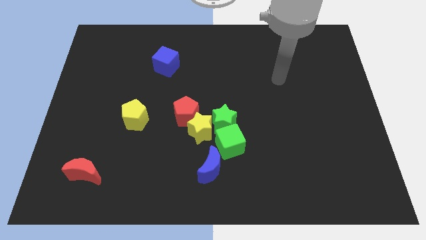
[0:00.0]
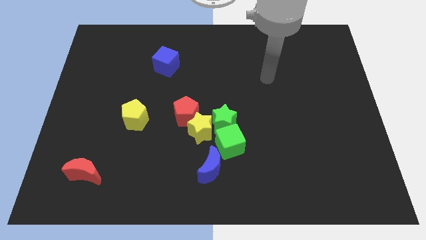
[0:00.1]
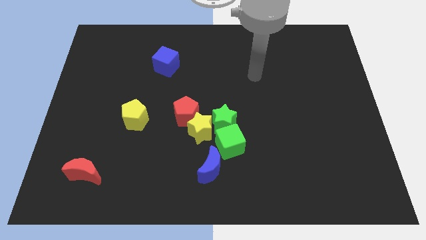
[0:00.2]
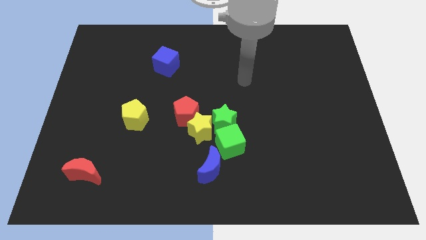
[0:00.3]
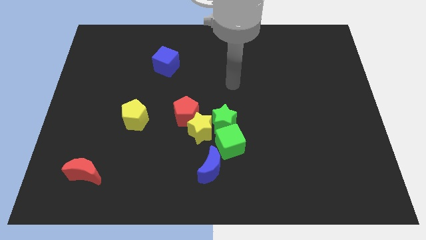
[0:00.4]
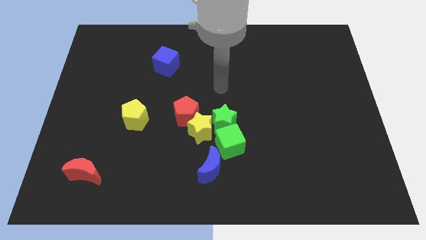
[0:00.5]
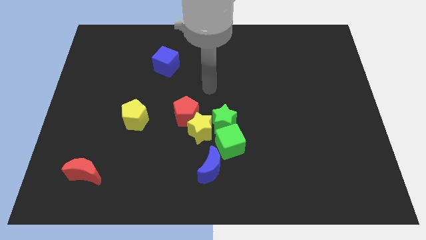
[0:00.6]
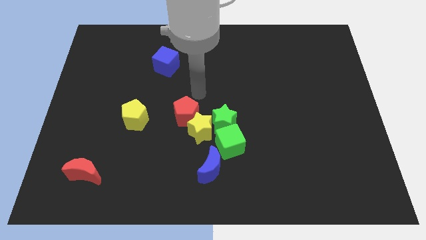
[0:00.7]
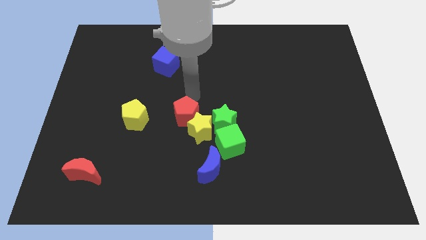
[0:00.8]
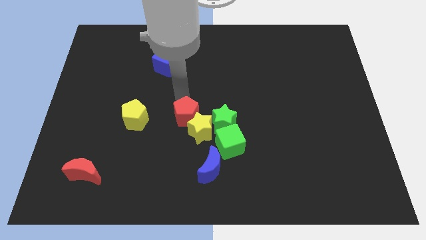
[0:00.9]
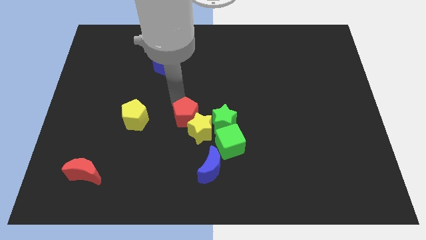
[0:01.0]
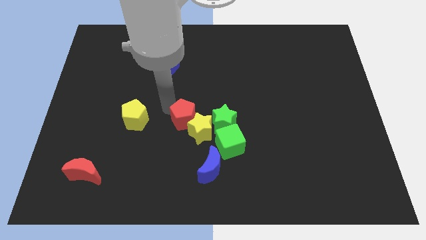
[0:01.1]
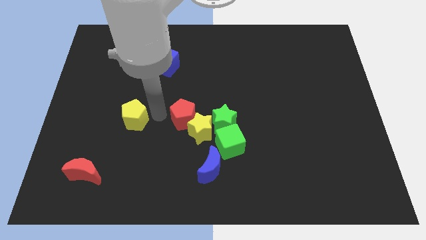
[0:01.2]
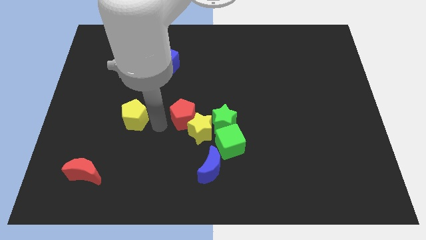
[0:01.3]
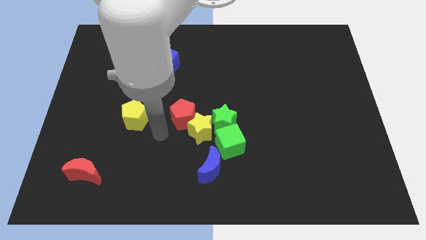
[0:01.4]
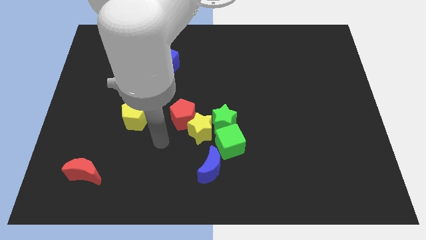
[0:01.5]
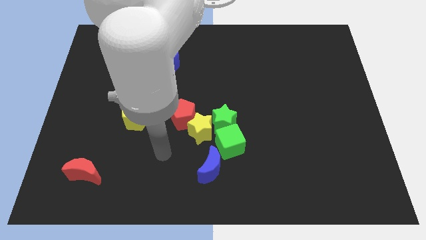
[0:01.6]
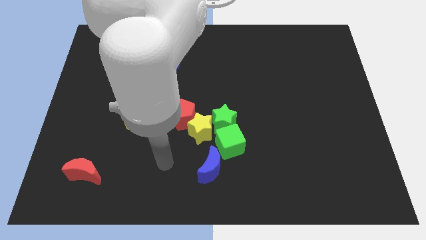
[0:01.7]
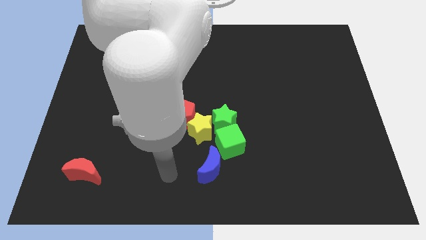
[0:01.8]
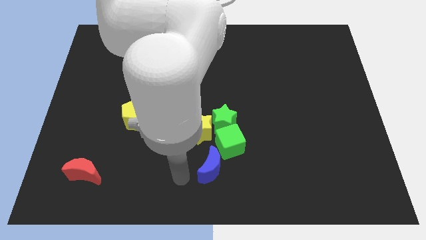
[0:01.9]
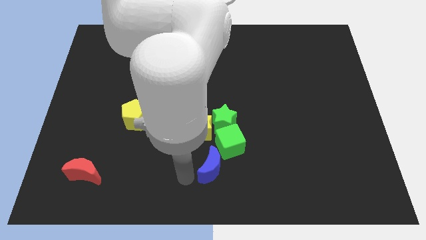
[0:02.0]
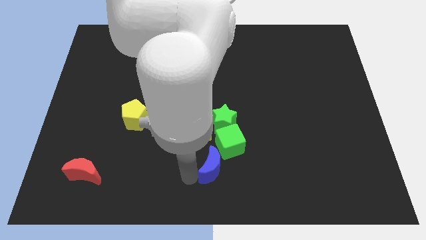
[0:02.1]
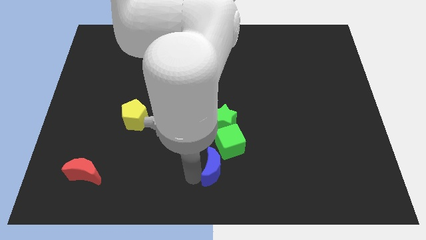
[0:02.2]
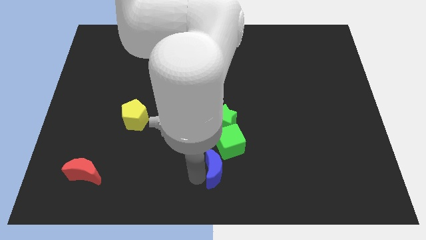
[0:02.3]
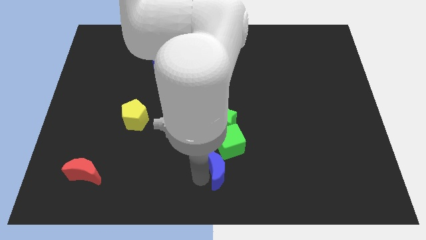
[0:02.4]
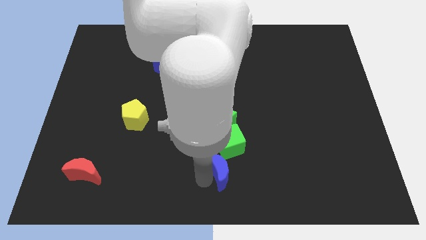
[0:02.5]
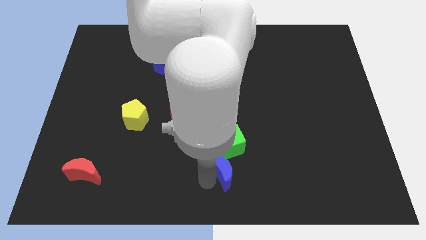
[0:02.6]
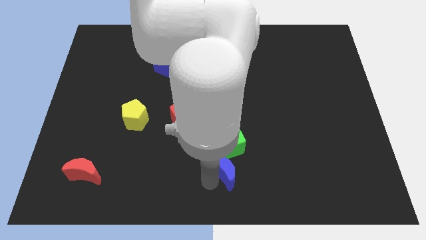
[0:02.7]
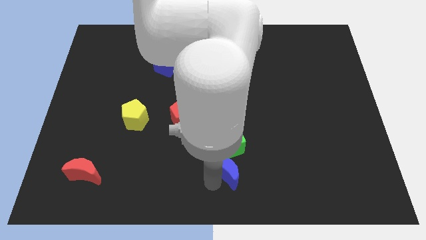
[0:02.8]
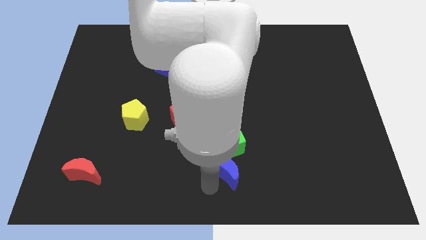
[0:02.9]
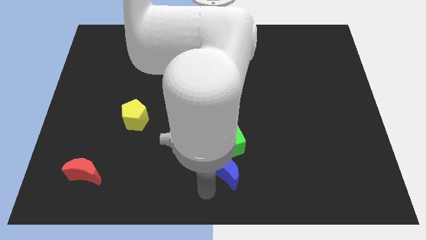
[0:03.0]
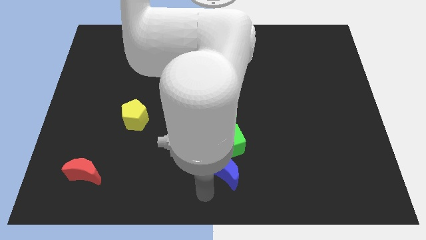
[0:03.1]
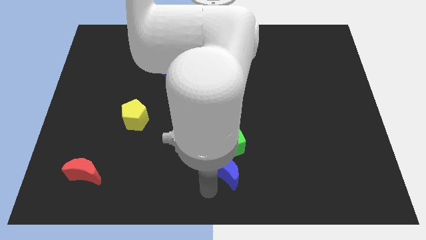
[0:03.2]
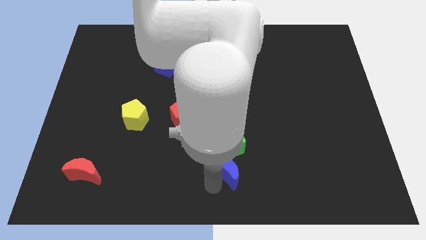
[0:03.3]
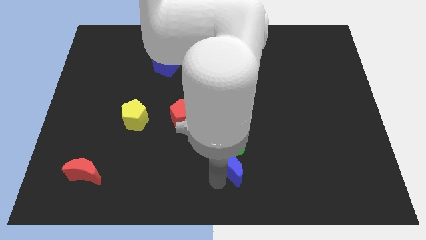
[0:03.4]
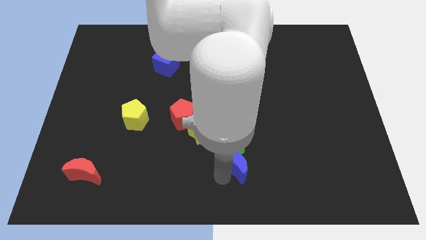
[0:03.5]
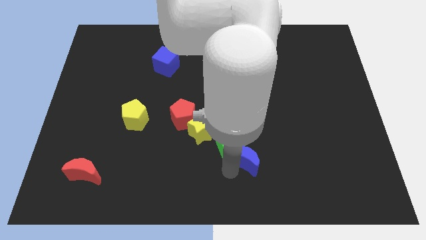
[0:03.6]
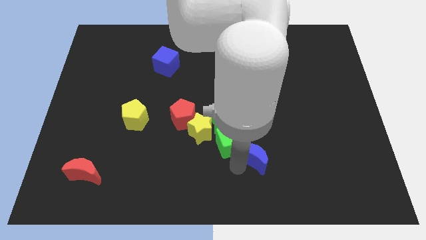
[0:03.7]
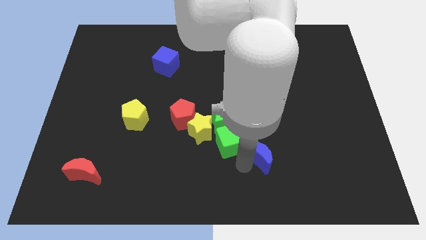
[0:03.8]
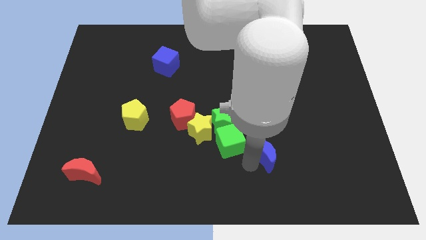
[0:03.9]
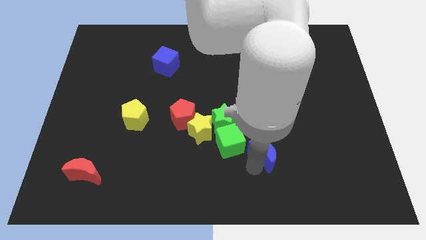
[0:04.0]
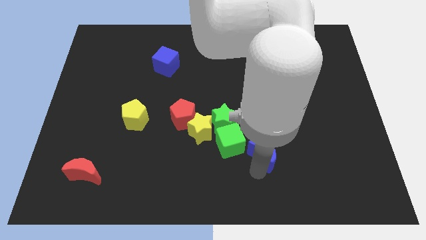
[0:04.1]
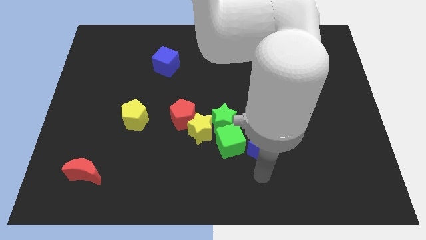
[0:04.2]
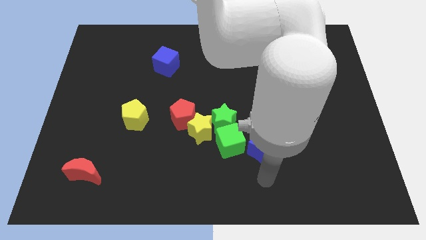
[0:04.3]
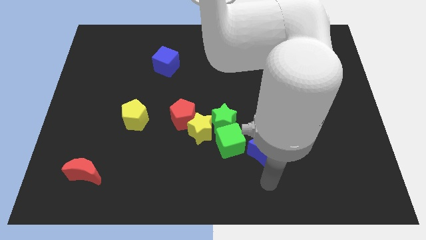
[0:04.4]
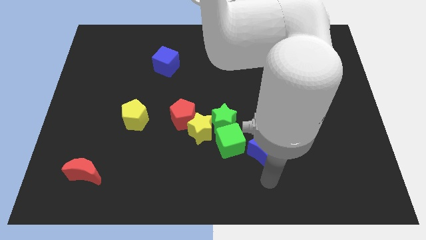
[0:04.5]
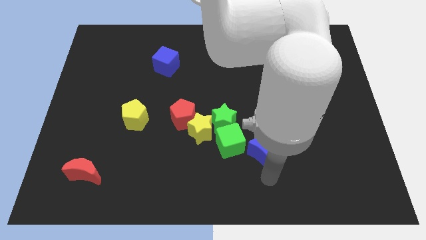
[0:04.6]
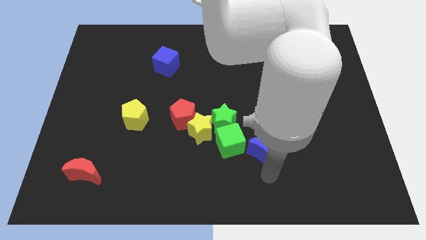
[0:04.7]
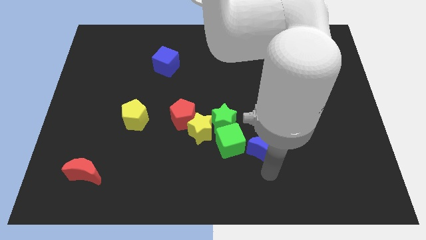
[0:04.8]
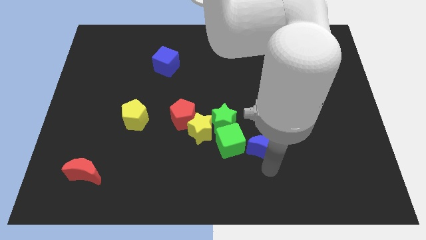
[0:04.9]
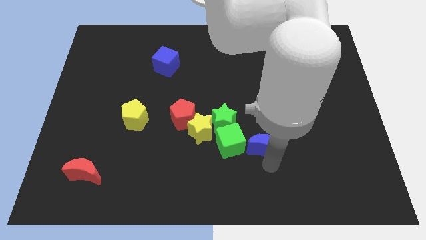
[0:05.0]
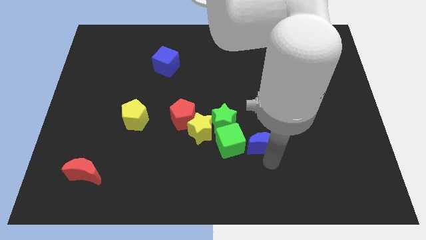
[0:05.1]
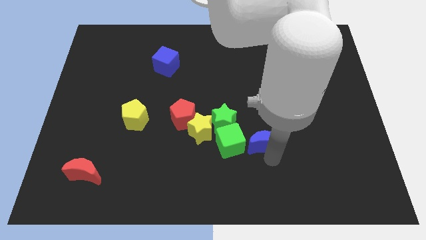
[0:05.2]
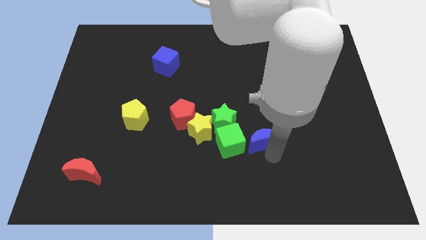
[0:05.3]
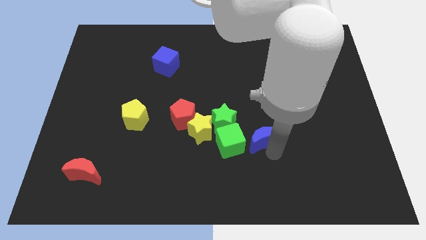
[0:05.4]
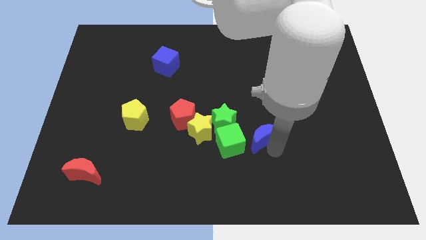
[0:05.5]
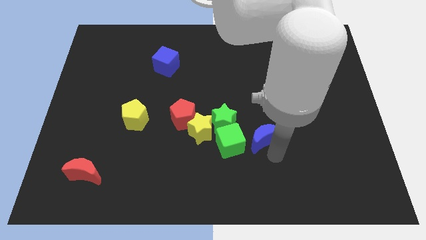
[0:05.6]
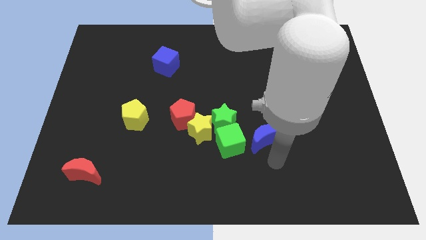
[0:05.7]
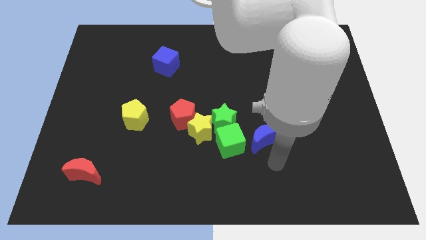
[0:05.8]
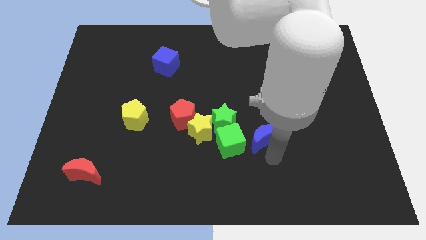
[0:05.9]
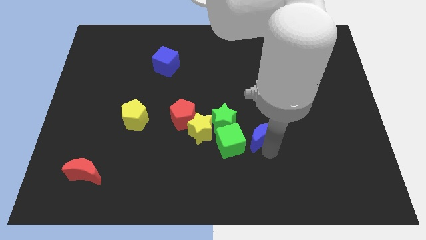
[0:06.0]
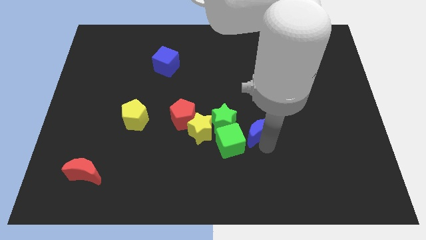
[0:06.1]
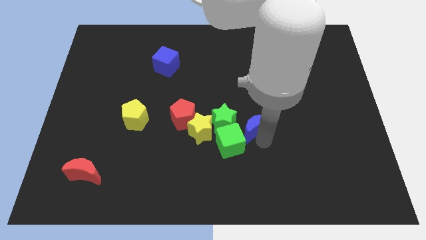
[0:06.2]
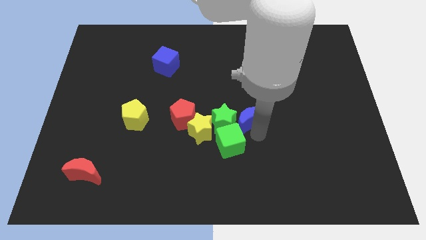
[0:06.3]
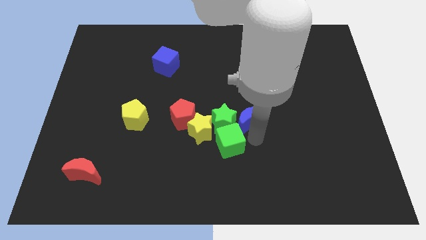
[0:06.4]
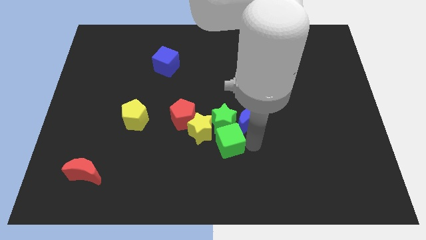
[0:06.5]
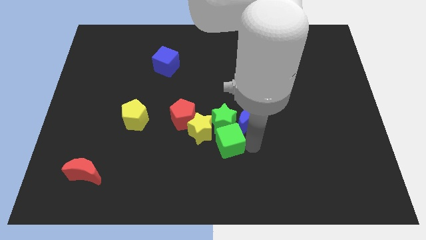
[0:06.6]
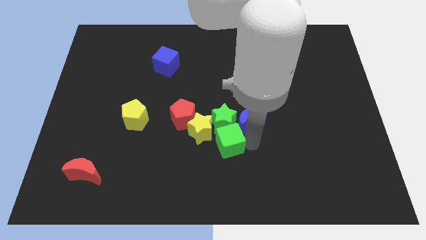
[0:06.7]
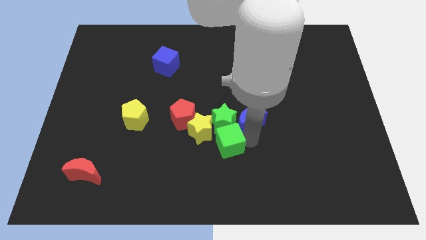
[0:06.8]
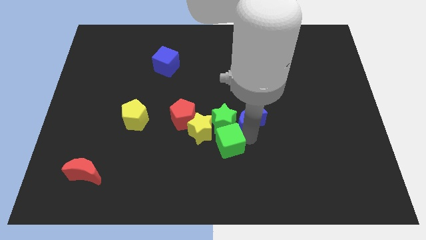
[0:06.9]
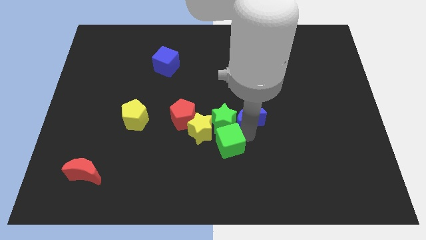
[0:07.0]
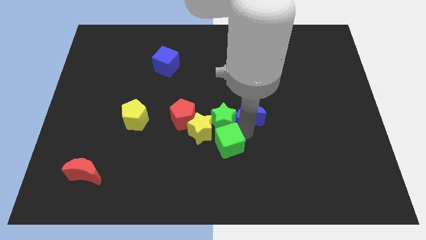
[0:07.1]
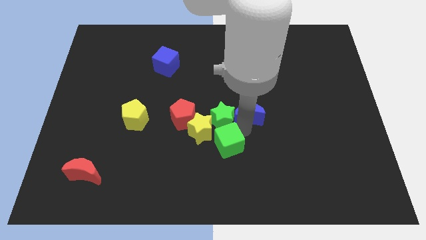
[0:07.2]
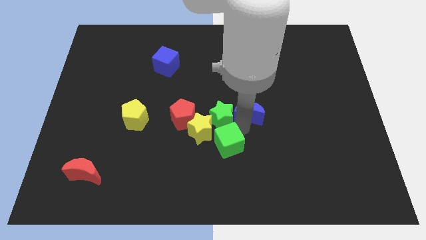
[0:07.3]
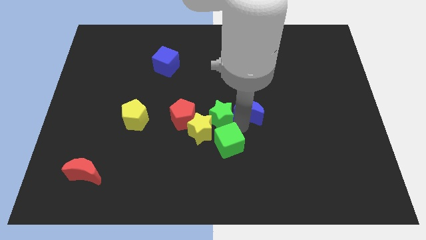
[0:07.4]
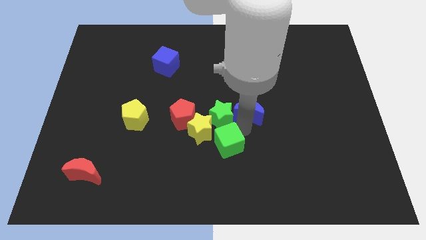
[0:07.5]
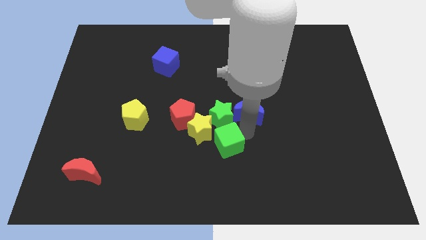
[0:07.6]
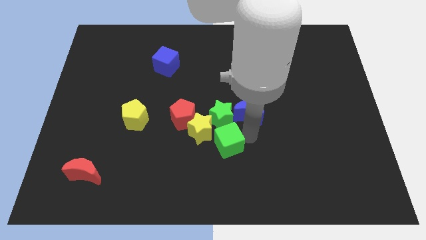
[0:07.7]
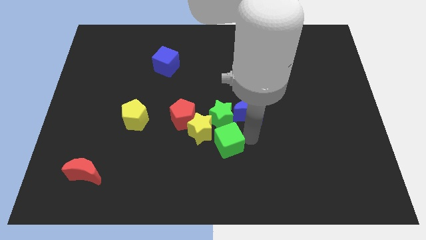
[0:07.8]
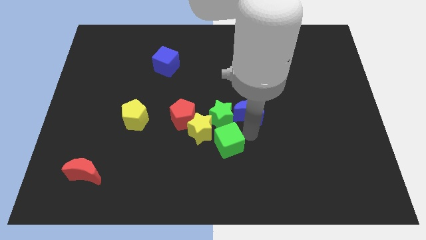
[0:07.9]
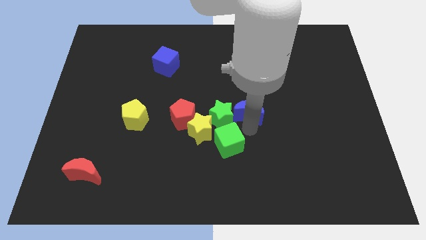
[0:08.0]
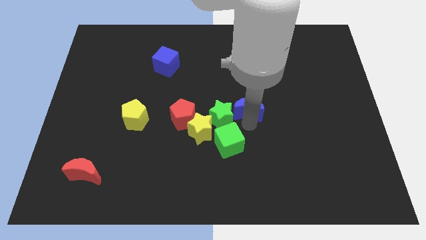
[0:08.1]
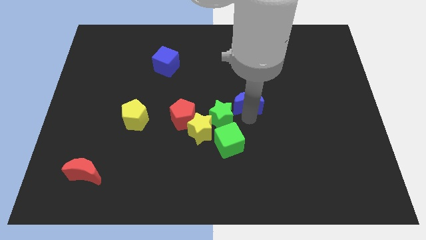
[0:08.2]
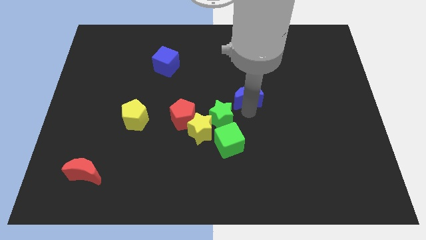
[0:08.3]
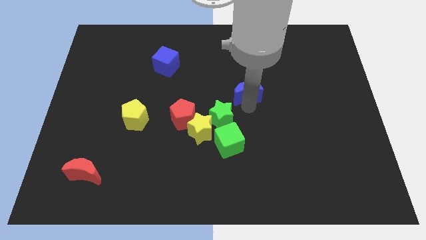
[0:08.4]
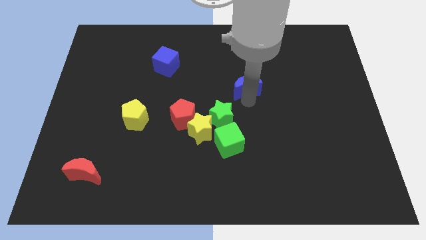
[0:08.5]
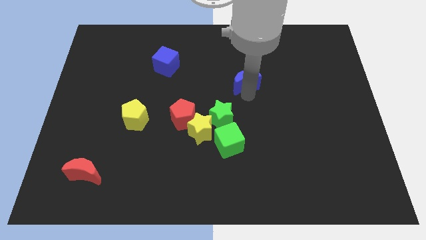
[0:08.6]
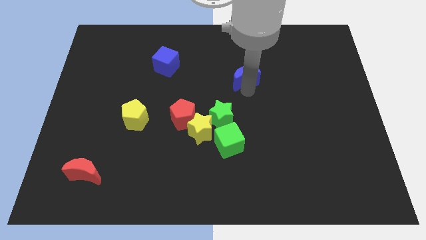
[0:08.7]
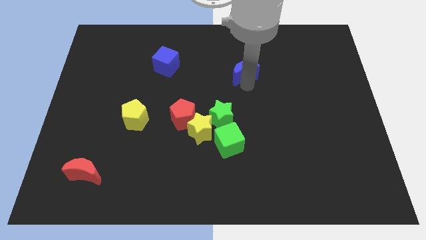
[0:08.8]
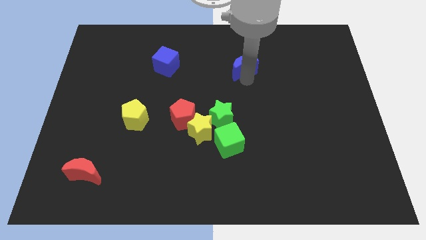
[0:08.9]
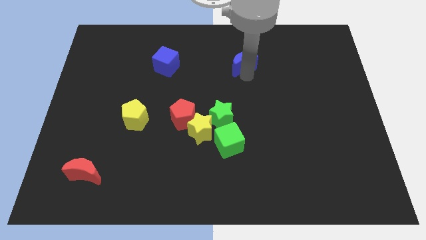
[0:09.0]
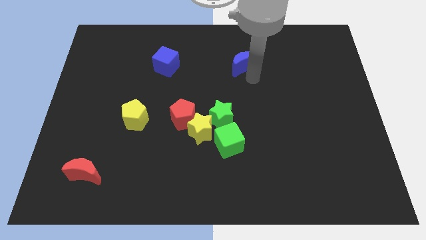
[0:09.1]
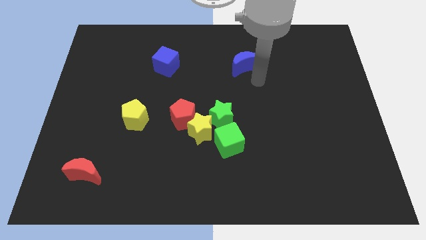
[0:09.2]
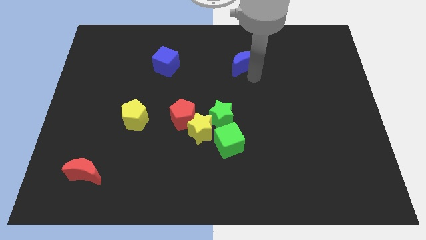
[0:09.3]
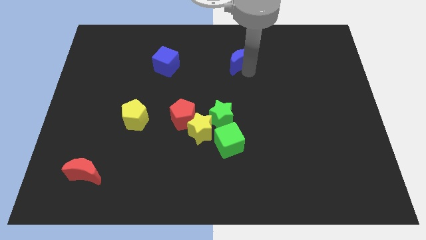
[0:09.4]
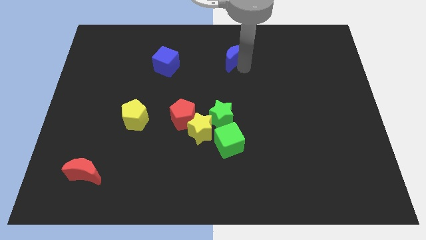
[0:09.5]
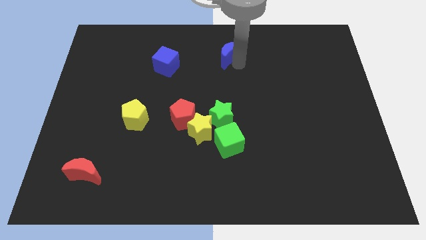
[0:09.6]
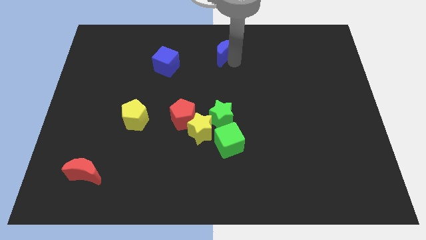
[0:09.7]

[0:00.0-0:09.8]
slide the blue moon to the top
